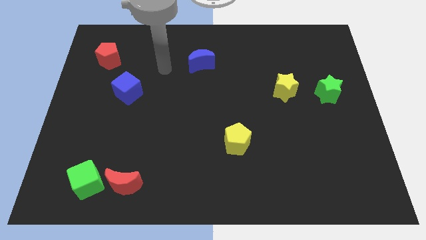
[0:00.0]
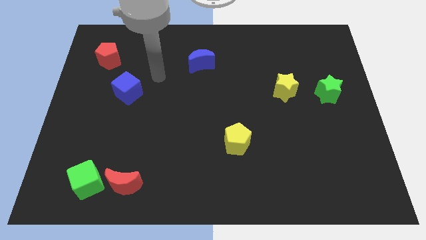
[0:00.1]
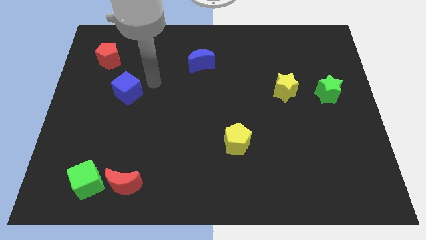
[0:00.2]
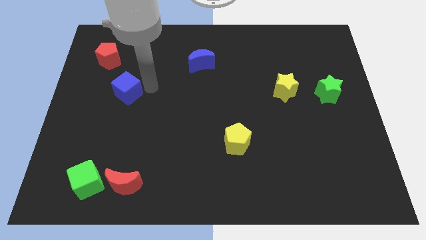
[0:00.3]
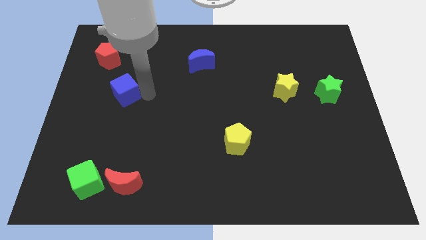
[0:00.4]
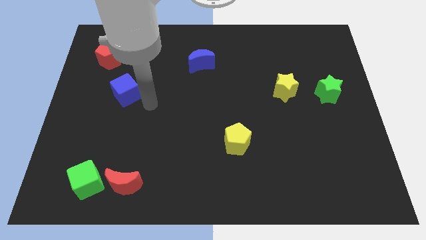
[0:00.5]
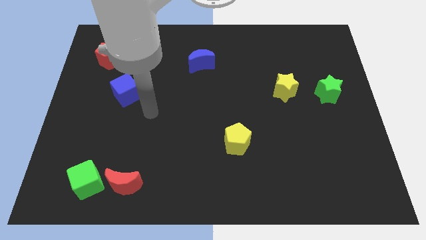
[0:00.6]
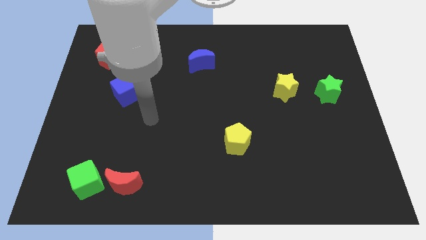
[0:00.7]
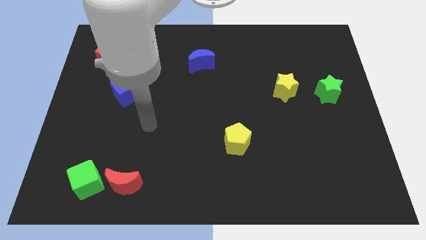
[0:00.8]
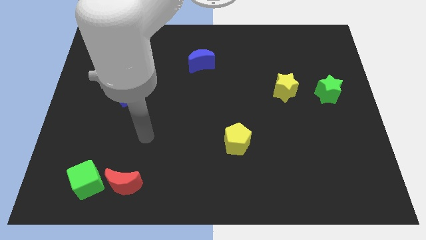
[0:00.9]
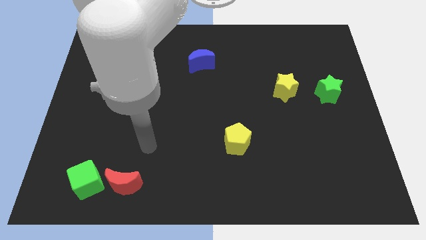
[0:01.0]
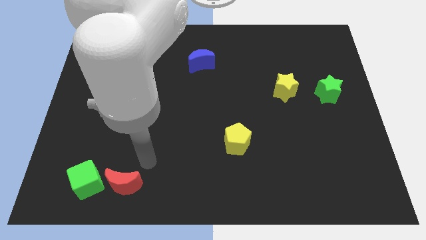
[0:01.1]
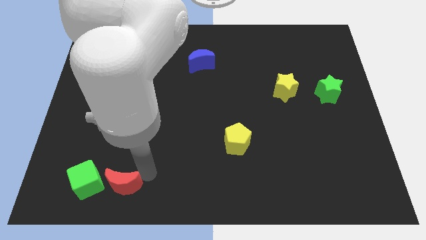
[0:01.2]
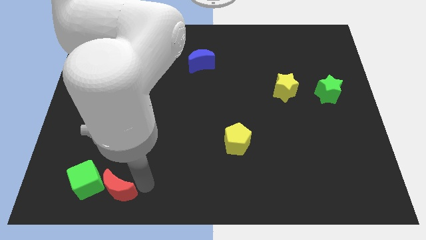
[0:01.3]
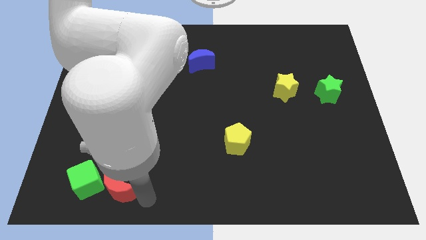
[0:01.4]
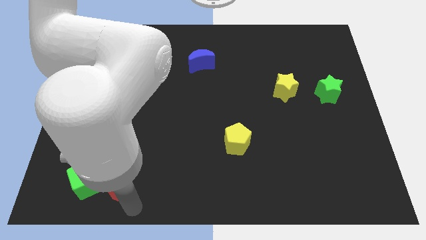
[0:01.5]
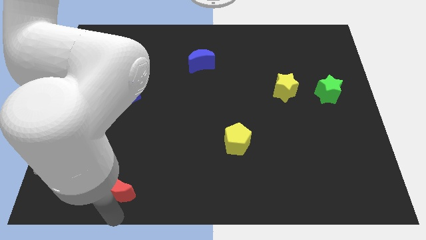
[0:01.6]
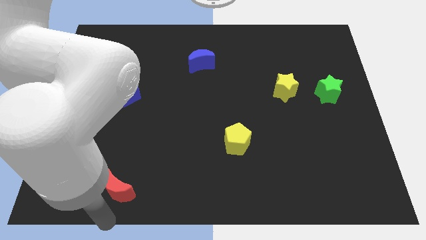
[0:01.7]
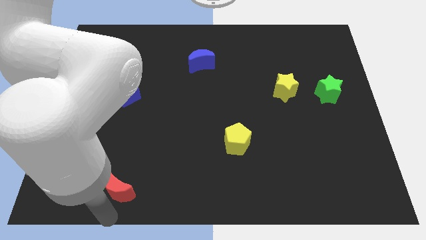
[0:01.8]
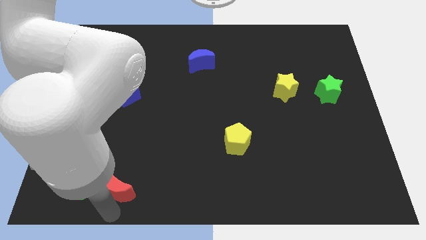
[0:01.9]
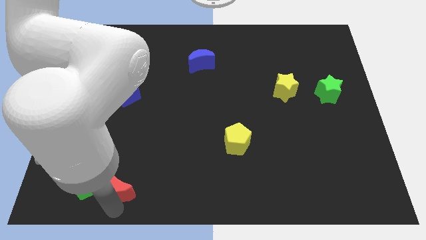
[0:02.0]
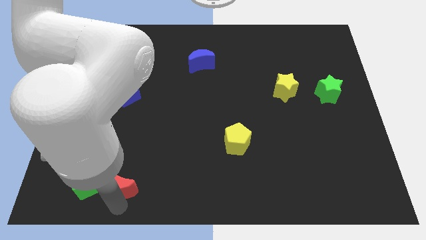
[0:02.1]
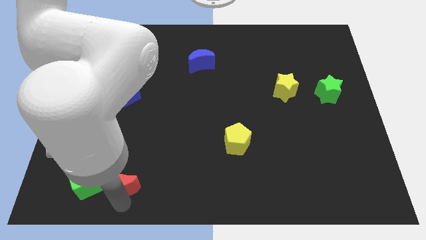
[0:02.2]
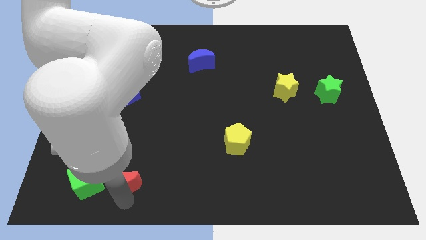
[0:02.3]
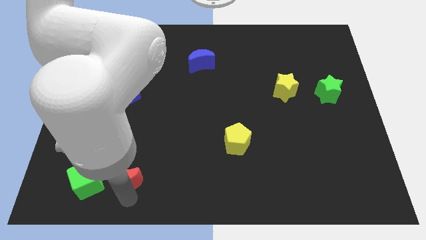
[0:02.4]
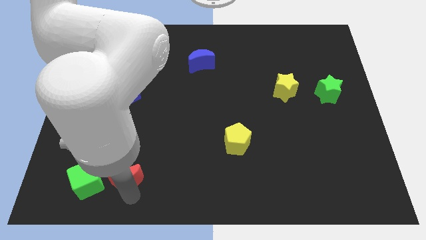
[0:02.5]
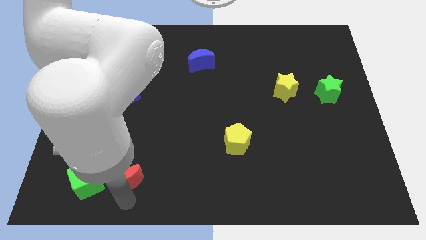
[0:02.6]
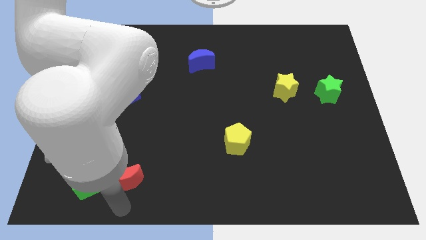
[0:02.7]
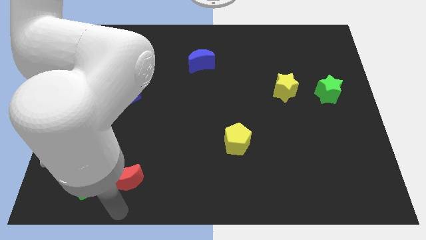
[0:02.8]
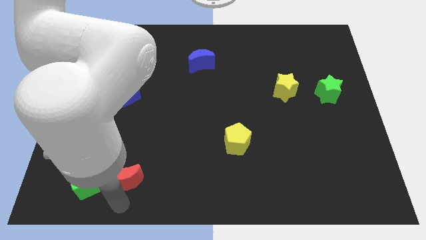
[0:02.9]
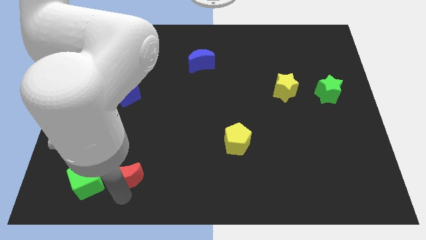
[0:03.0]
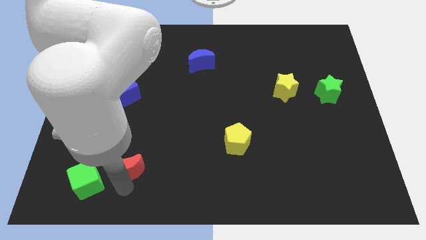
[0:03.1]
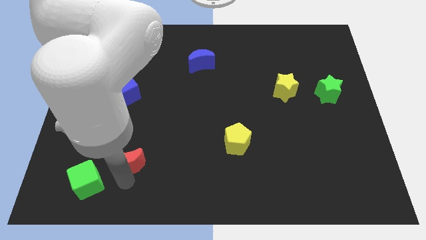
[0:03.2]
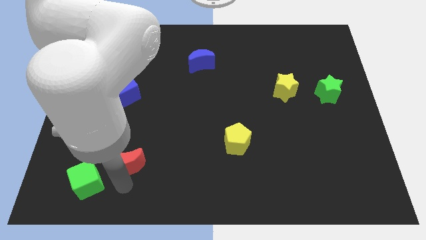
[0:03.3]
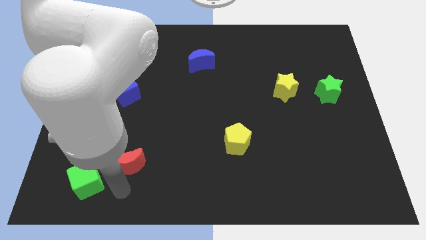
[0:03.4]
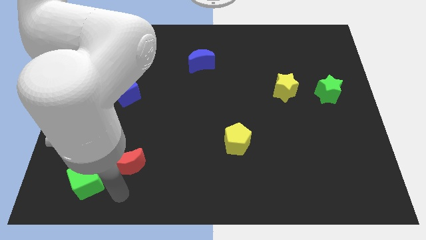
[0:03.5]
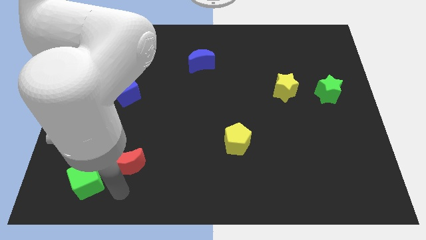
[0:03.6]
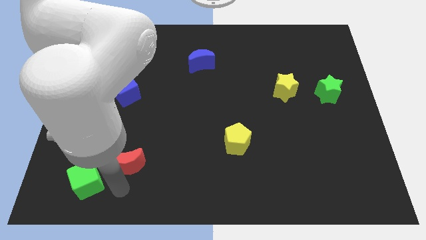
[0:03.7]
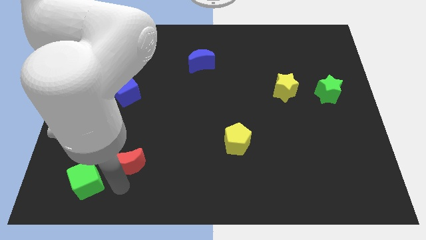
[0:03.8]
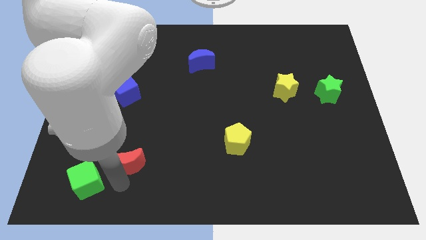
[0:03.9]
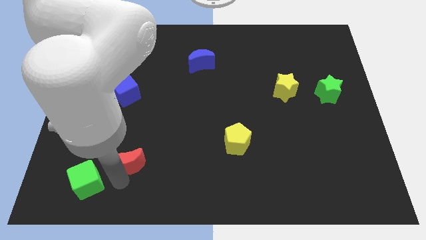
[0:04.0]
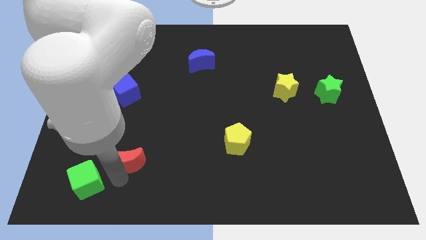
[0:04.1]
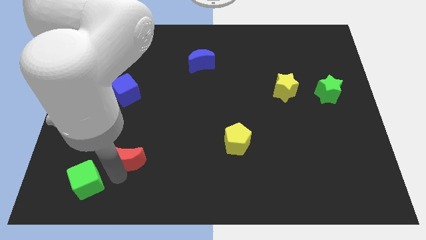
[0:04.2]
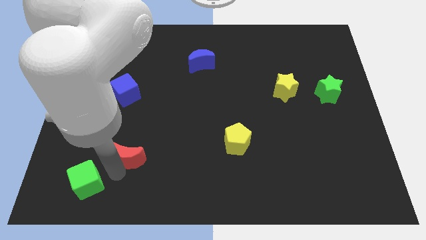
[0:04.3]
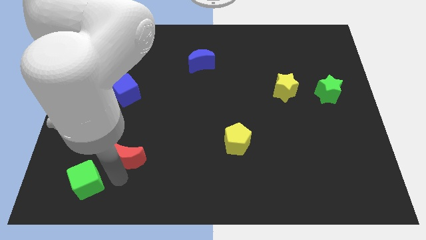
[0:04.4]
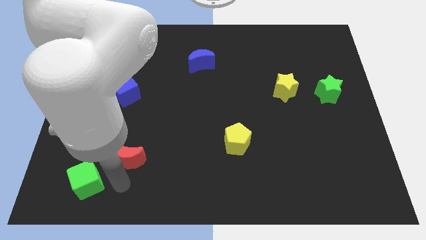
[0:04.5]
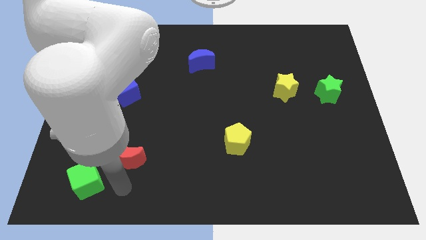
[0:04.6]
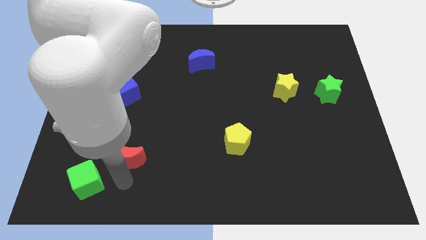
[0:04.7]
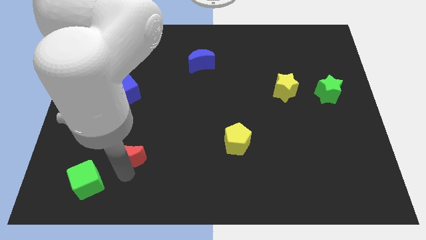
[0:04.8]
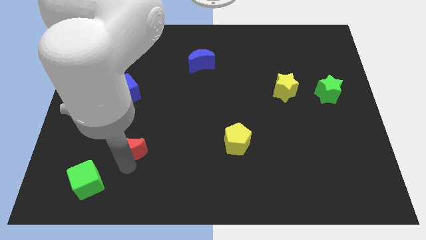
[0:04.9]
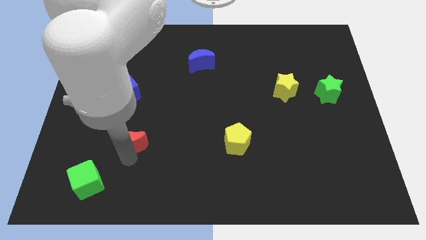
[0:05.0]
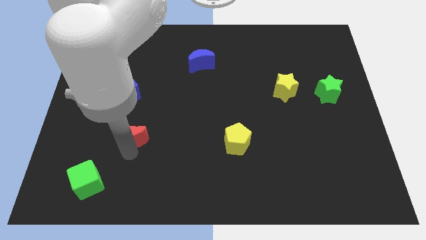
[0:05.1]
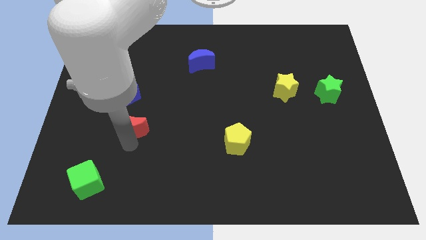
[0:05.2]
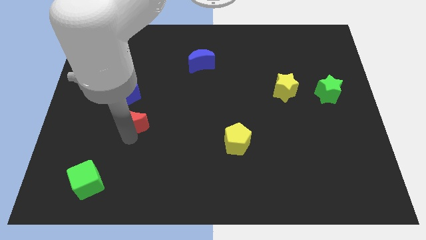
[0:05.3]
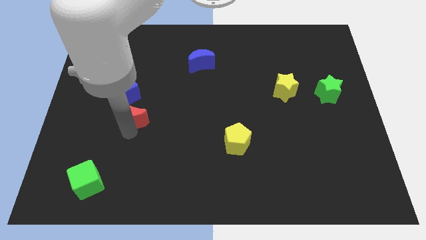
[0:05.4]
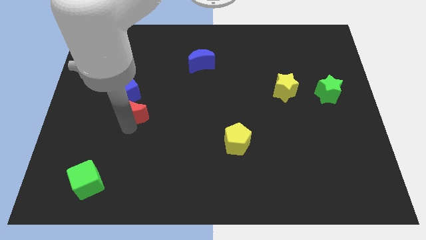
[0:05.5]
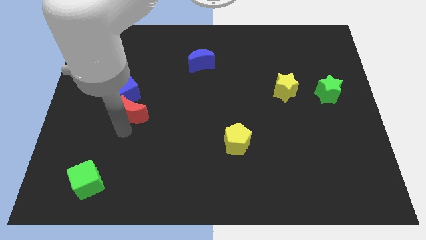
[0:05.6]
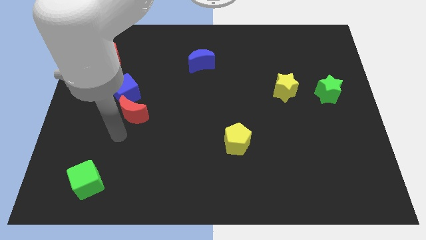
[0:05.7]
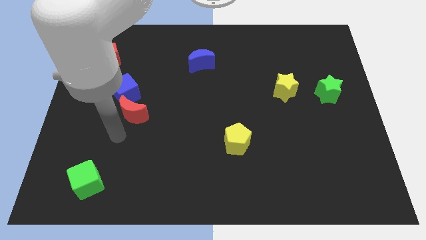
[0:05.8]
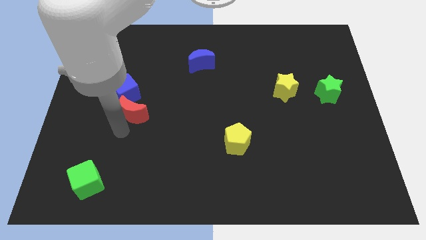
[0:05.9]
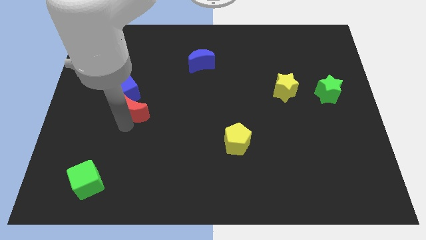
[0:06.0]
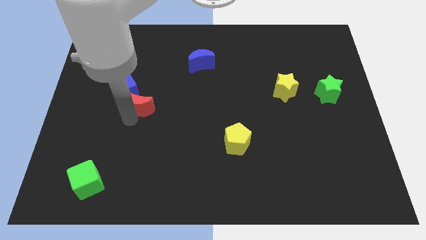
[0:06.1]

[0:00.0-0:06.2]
slide the red moon upwards

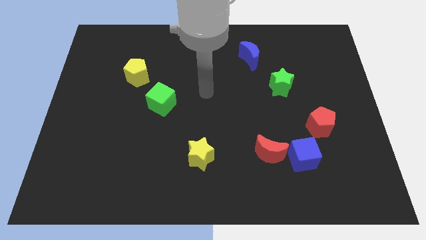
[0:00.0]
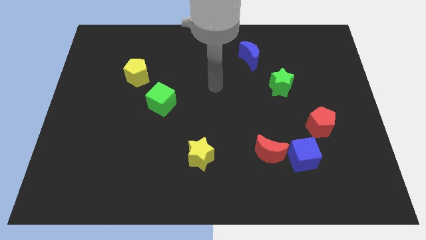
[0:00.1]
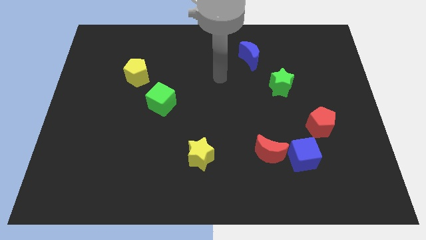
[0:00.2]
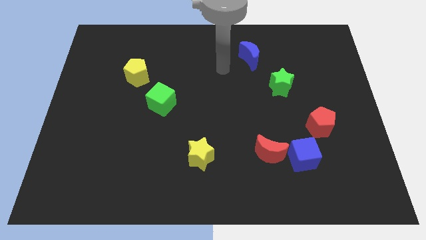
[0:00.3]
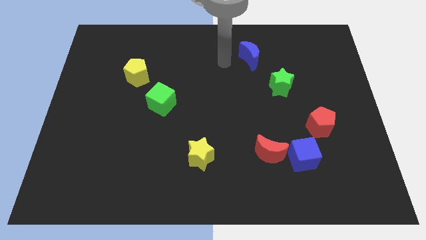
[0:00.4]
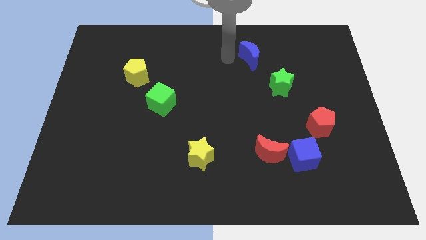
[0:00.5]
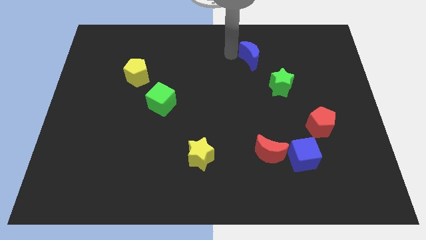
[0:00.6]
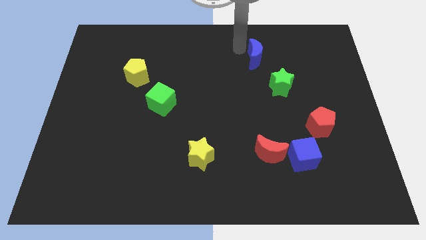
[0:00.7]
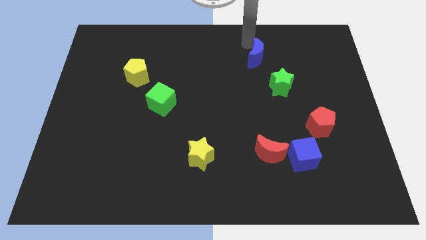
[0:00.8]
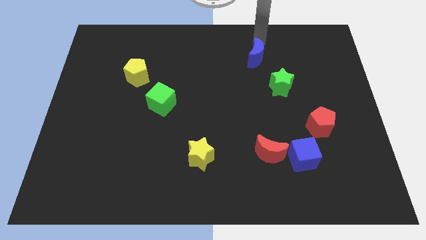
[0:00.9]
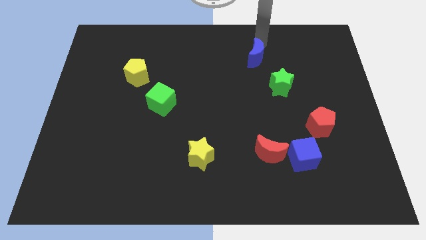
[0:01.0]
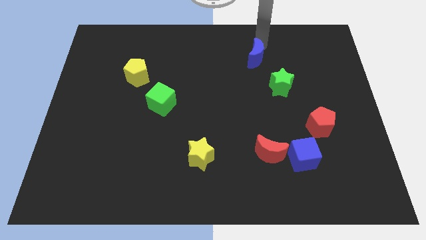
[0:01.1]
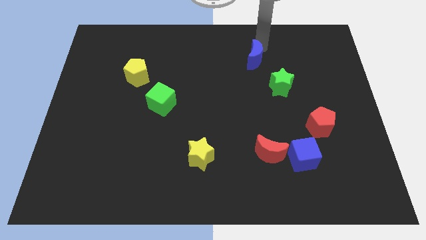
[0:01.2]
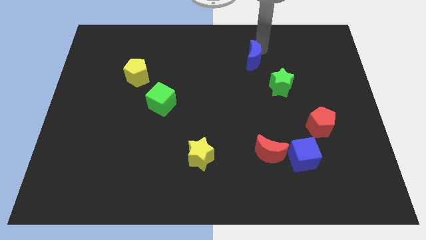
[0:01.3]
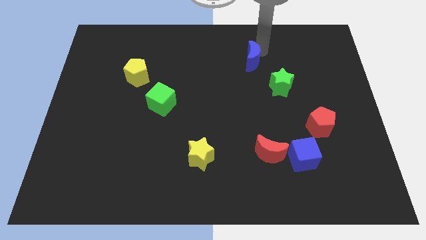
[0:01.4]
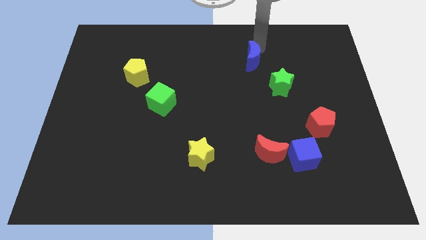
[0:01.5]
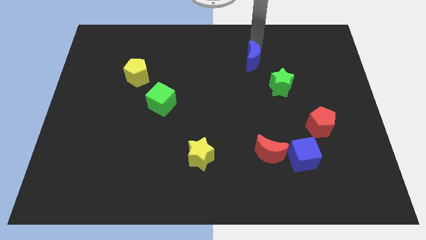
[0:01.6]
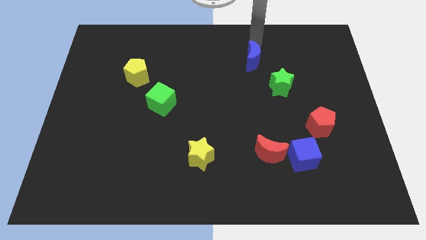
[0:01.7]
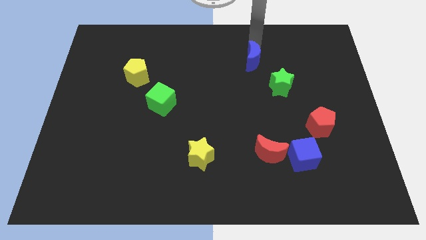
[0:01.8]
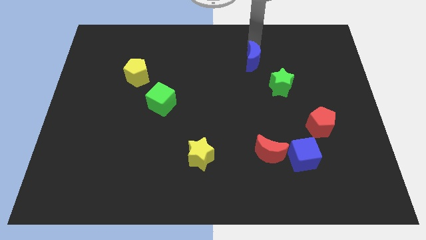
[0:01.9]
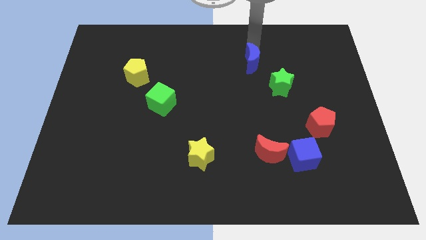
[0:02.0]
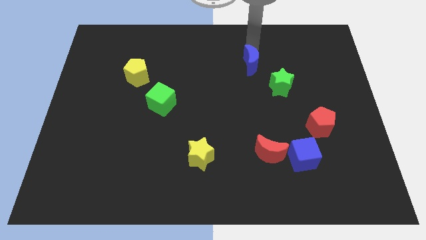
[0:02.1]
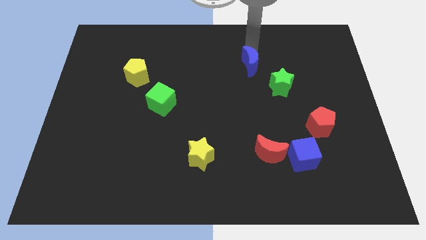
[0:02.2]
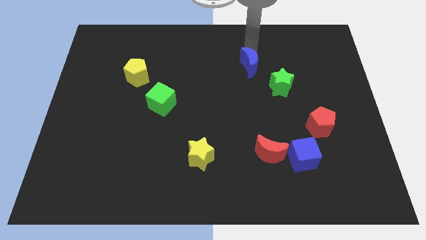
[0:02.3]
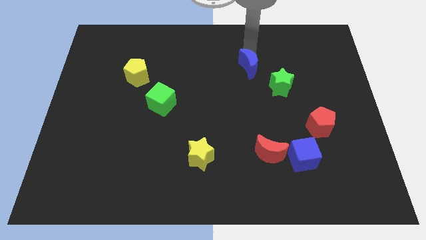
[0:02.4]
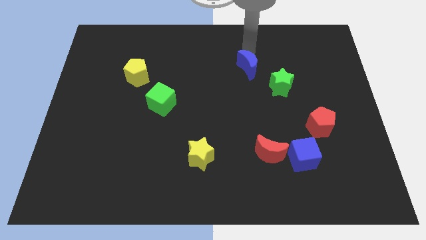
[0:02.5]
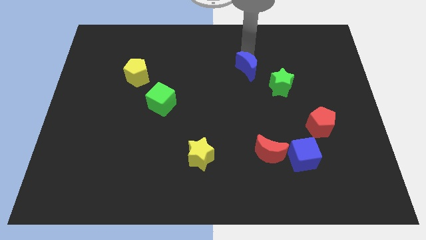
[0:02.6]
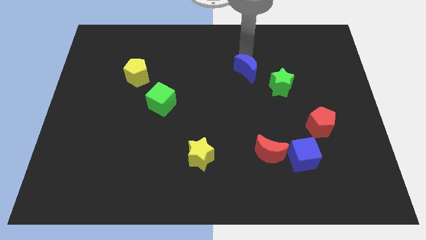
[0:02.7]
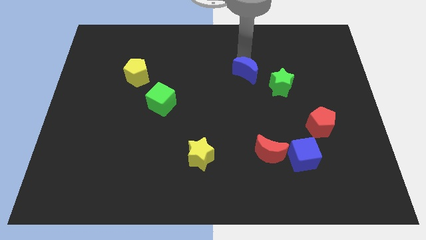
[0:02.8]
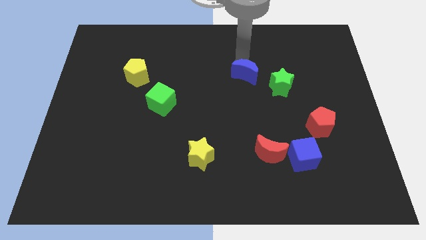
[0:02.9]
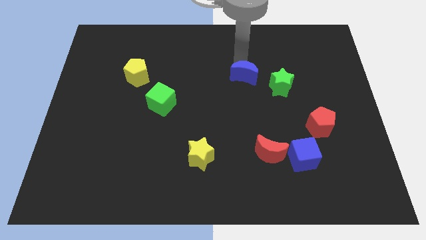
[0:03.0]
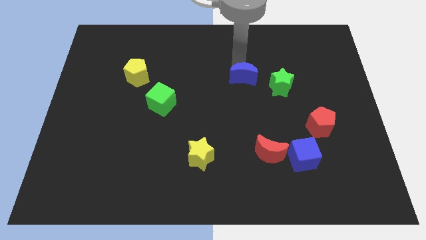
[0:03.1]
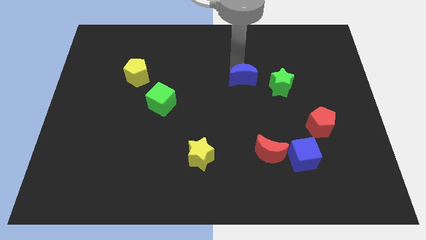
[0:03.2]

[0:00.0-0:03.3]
slide the blue moon downwards a little
